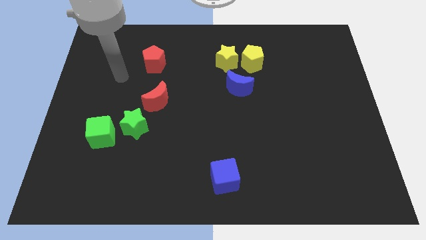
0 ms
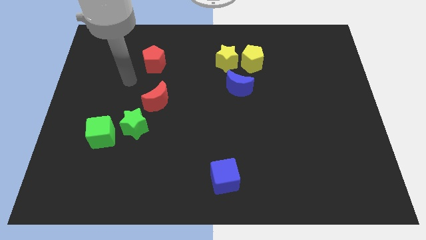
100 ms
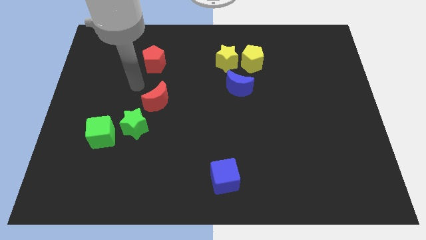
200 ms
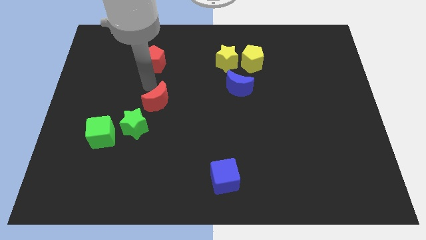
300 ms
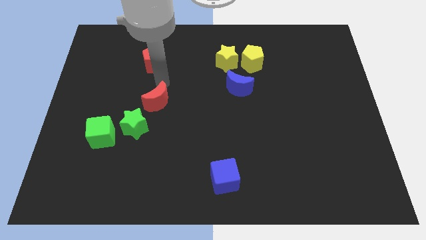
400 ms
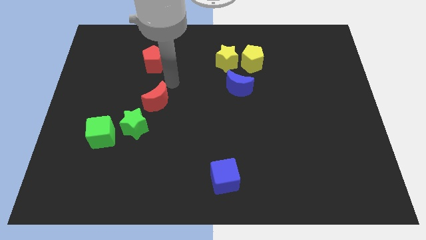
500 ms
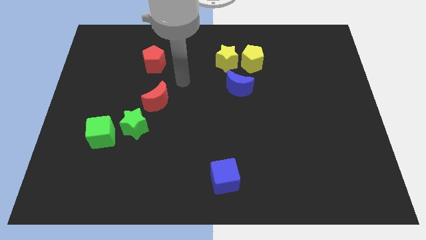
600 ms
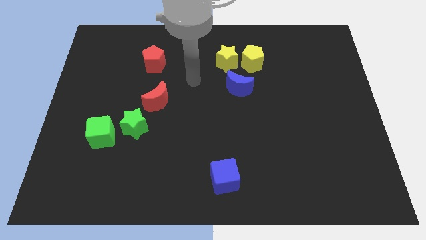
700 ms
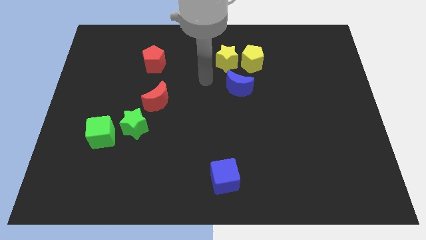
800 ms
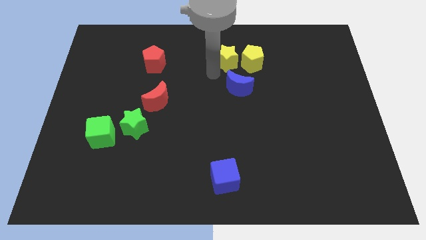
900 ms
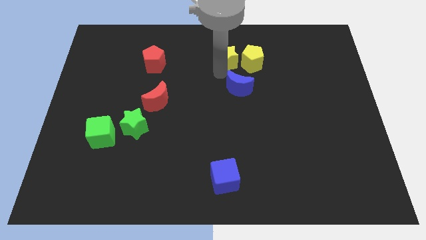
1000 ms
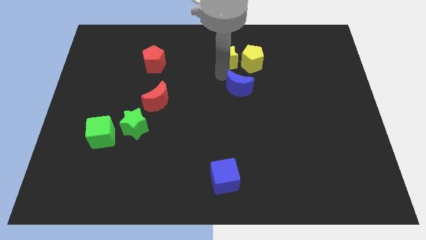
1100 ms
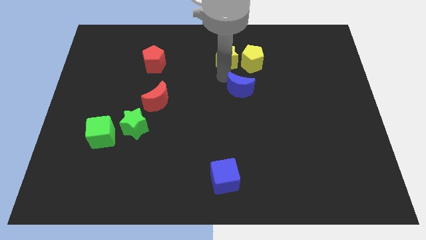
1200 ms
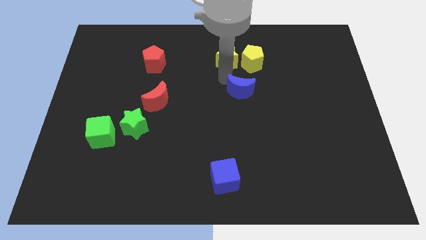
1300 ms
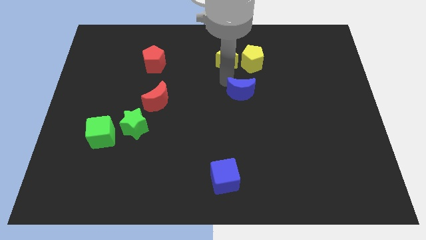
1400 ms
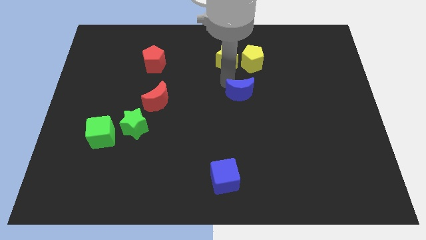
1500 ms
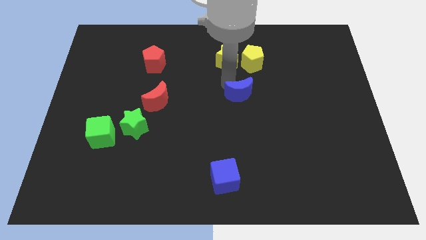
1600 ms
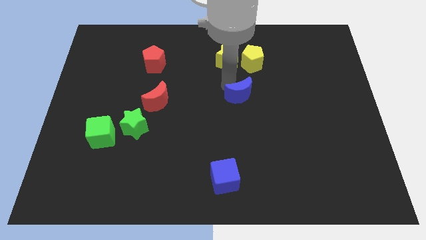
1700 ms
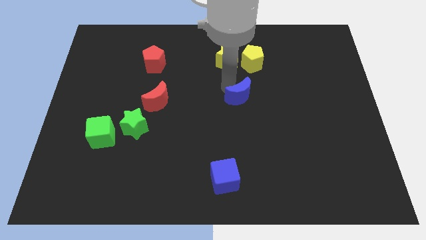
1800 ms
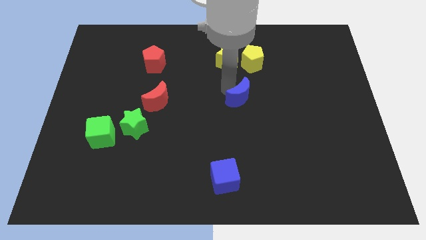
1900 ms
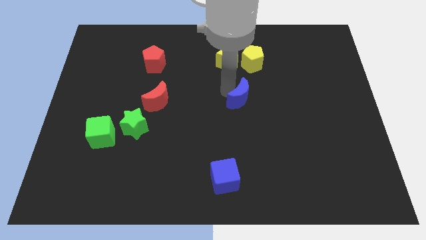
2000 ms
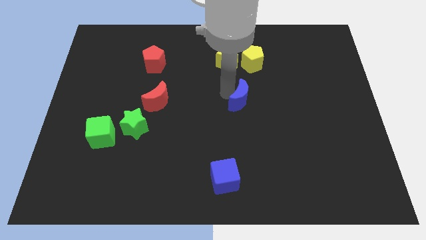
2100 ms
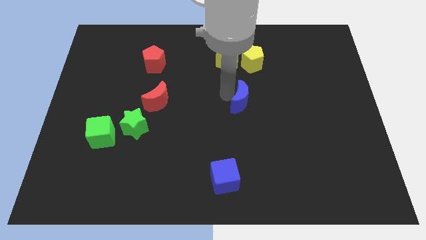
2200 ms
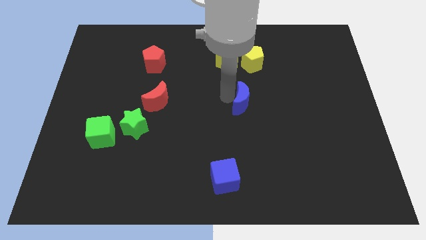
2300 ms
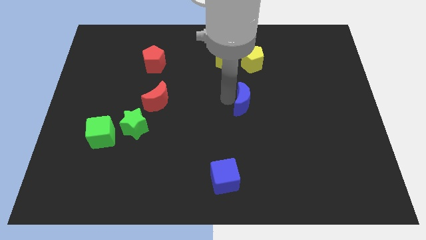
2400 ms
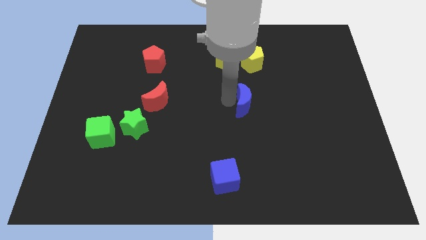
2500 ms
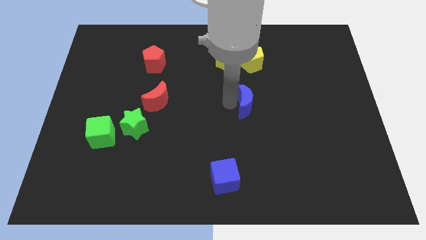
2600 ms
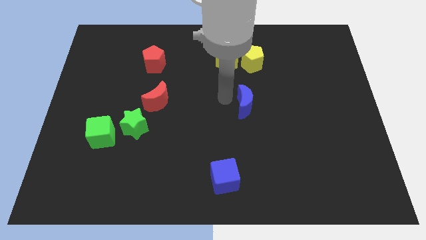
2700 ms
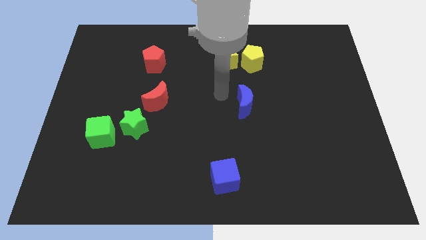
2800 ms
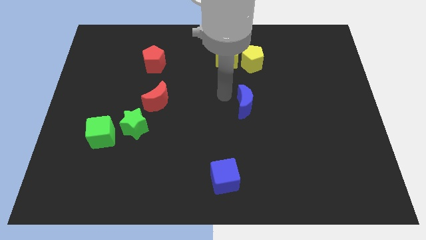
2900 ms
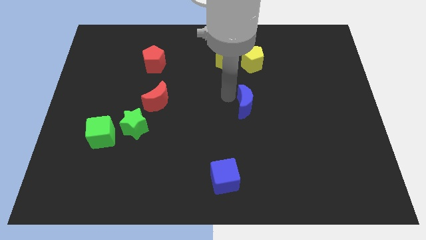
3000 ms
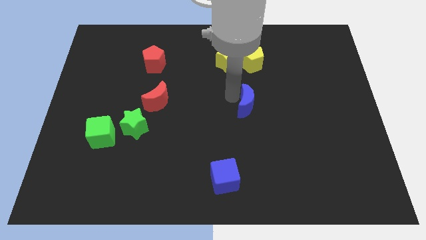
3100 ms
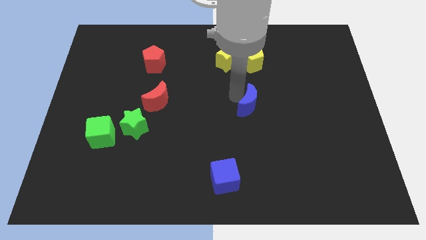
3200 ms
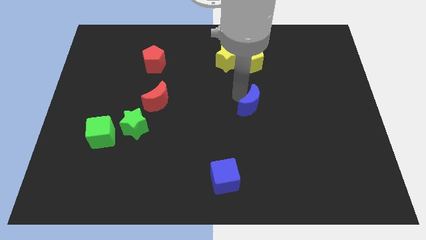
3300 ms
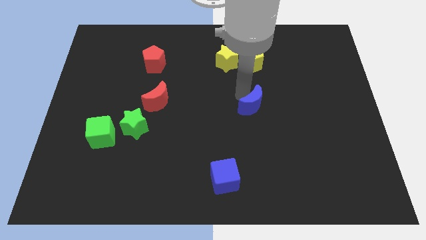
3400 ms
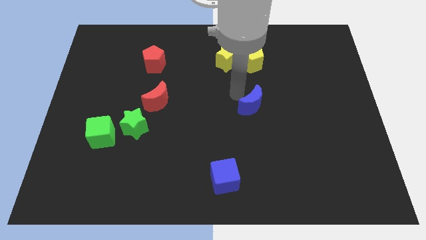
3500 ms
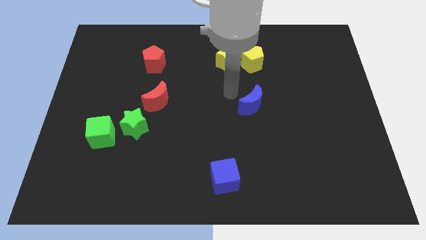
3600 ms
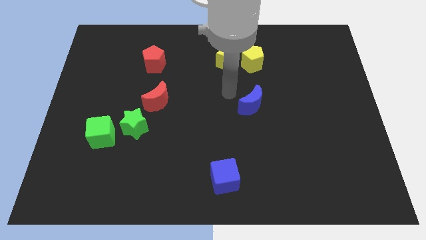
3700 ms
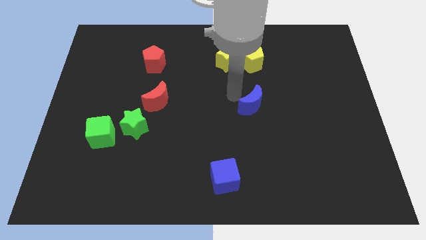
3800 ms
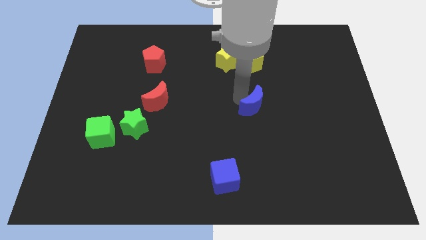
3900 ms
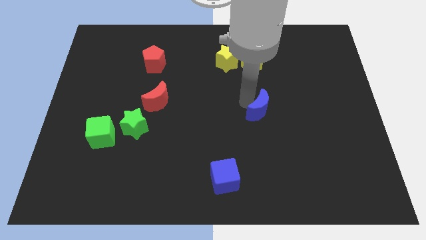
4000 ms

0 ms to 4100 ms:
push the blue moon diagonally downwards and to the right a little

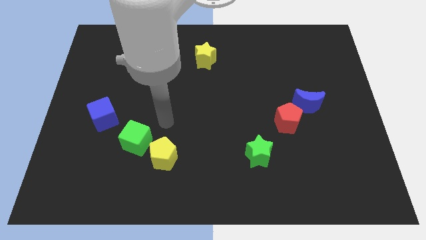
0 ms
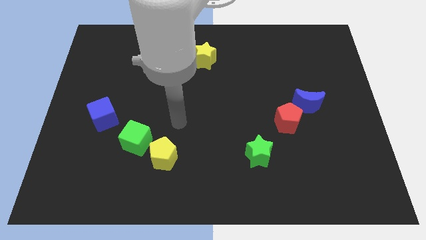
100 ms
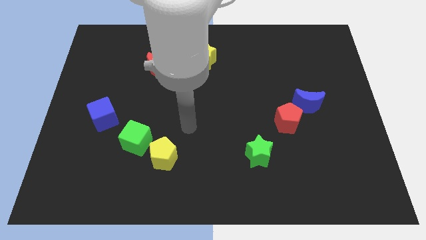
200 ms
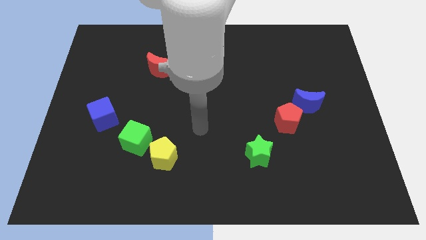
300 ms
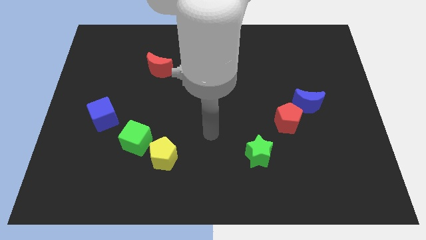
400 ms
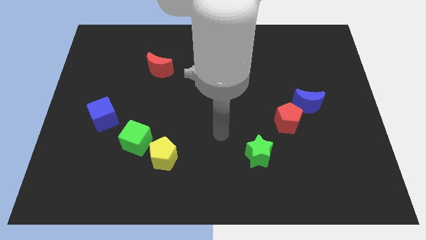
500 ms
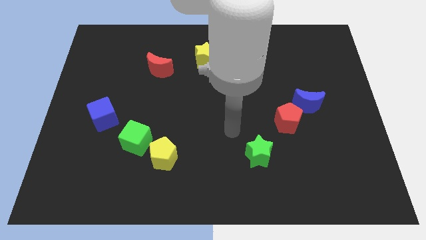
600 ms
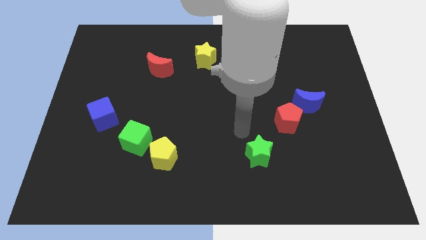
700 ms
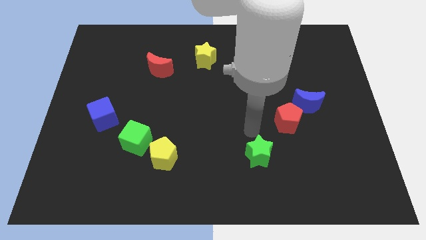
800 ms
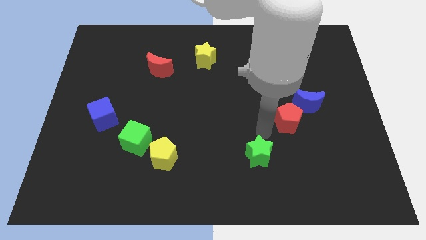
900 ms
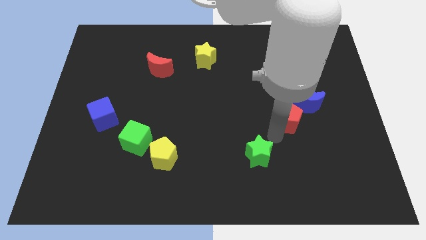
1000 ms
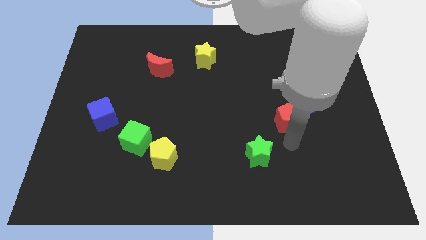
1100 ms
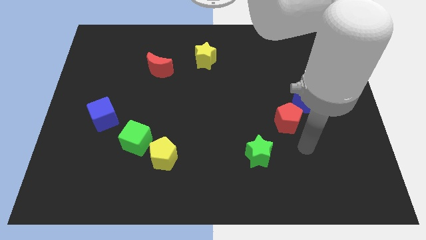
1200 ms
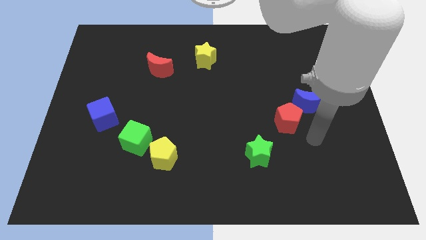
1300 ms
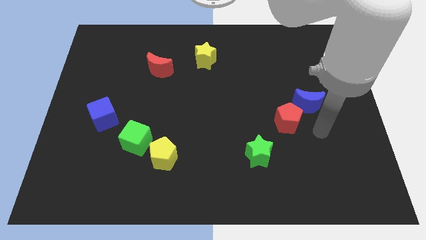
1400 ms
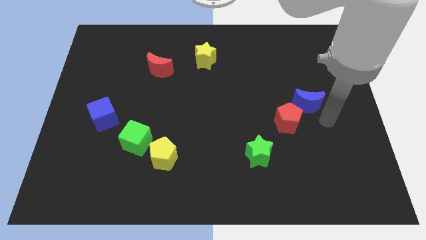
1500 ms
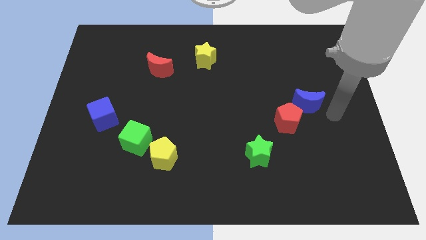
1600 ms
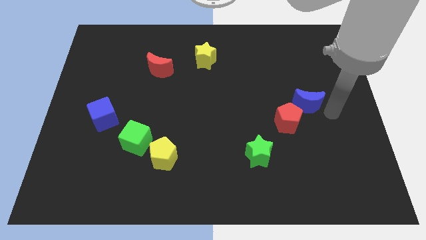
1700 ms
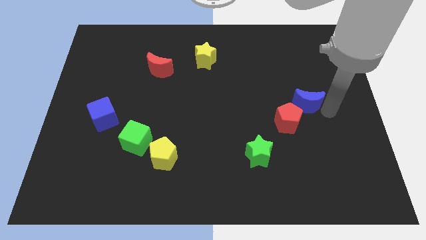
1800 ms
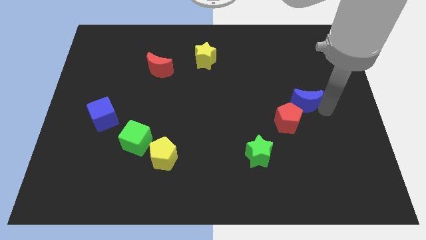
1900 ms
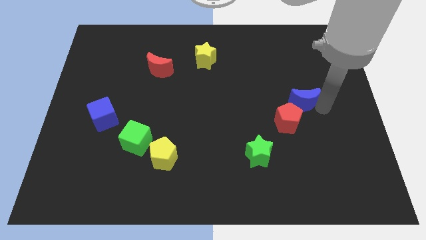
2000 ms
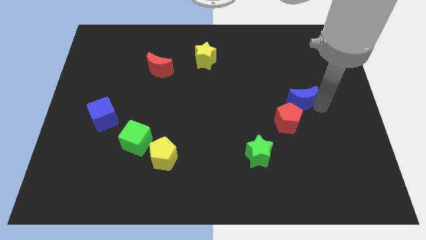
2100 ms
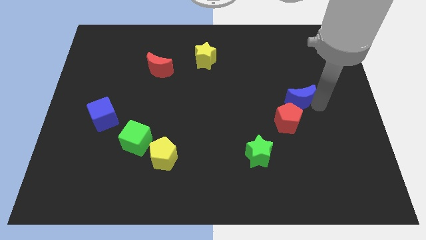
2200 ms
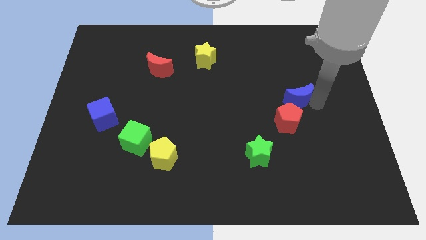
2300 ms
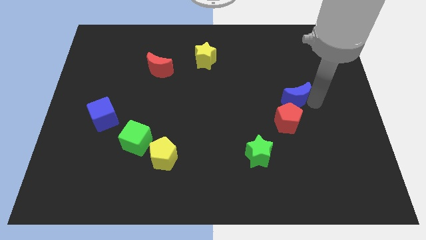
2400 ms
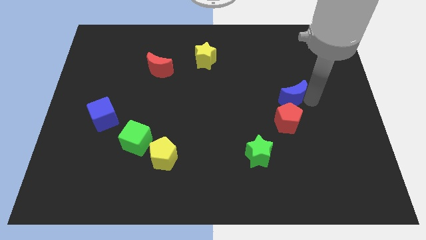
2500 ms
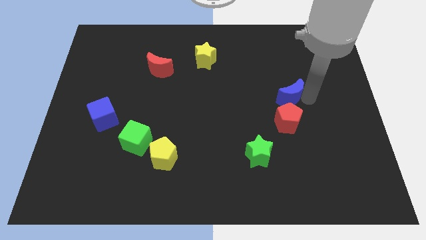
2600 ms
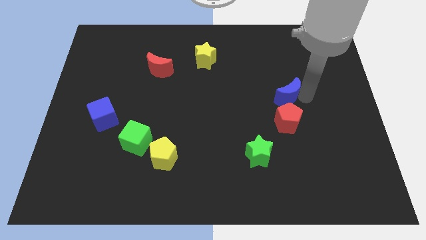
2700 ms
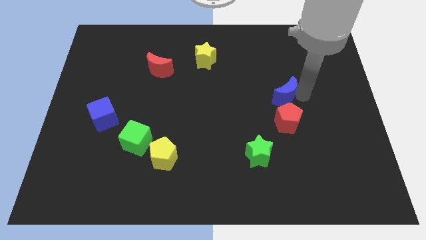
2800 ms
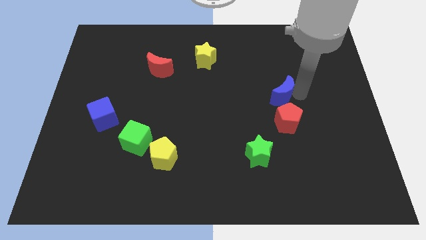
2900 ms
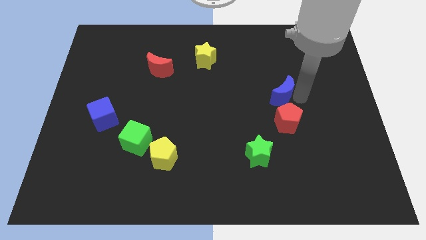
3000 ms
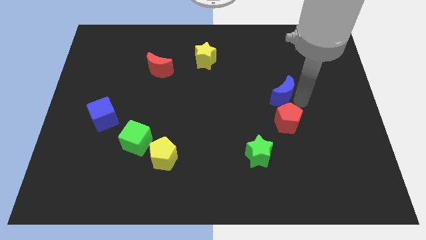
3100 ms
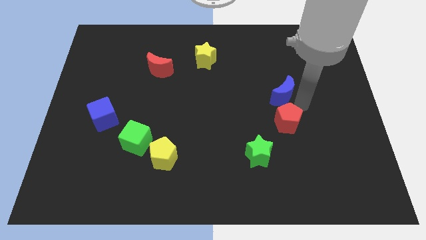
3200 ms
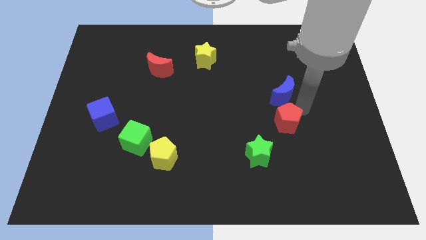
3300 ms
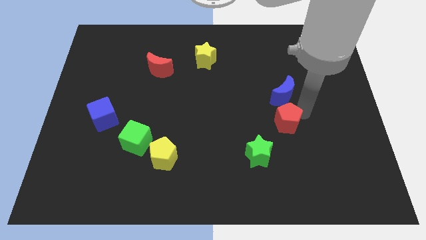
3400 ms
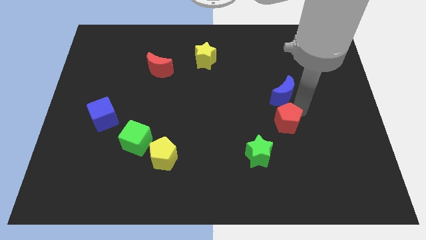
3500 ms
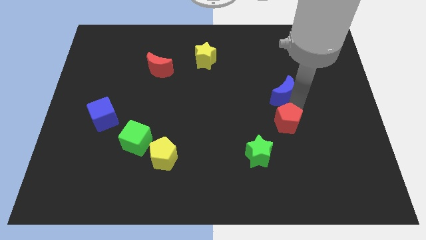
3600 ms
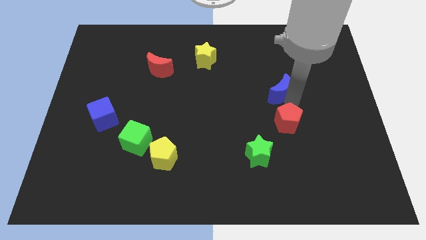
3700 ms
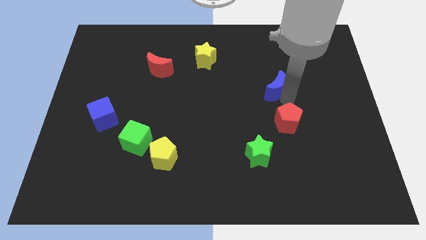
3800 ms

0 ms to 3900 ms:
slightly slide the blue moon upwards and to the left diagonally
